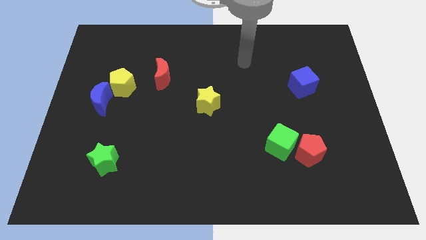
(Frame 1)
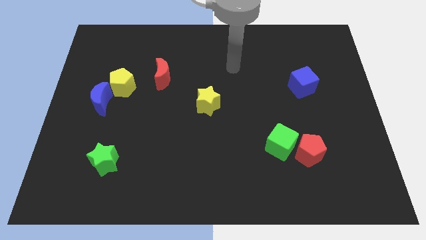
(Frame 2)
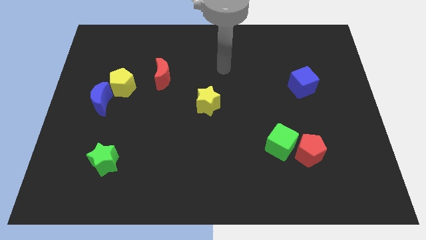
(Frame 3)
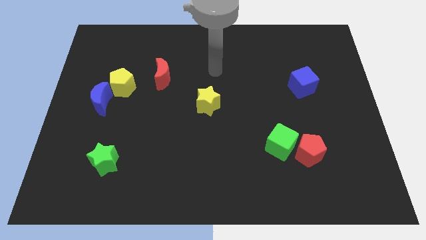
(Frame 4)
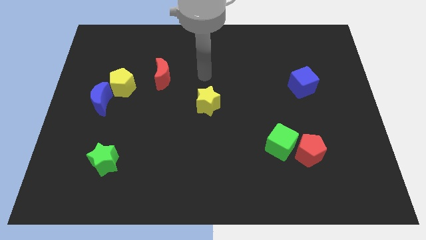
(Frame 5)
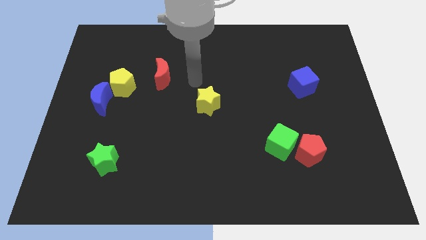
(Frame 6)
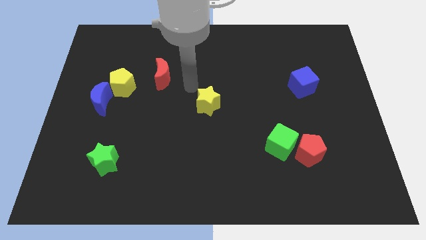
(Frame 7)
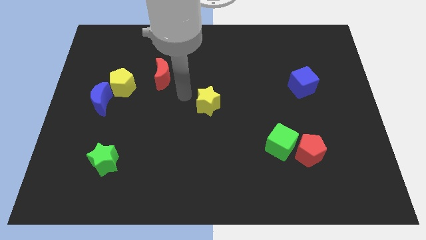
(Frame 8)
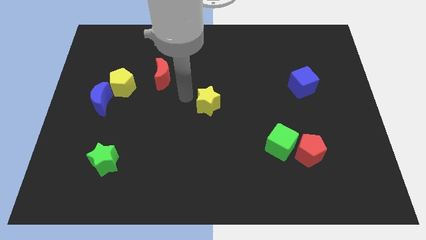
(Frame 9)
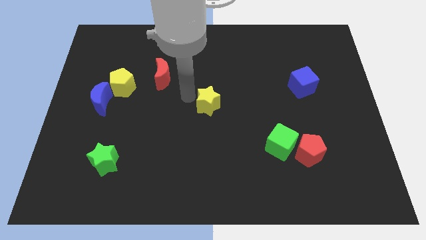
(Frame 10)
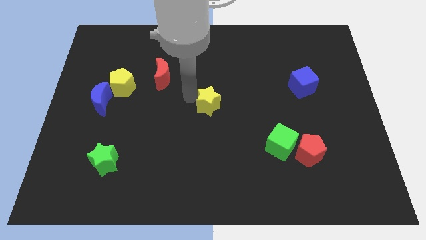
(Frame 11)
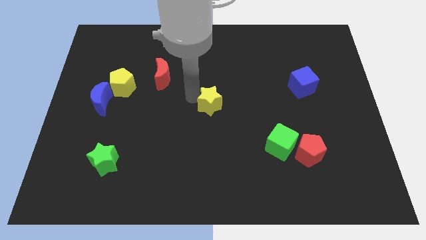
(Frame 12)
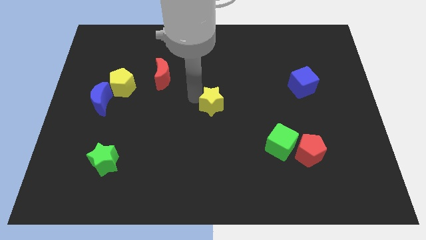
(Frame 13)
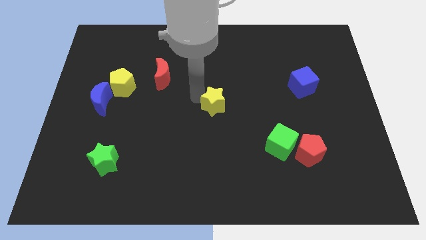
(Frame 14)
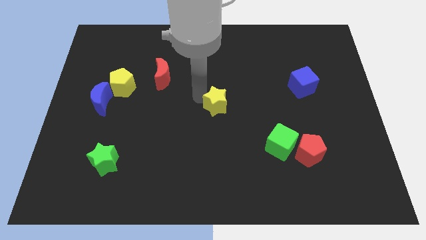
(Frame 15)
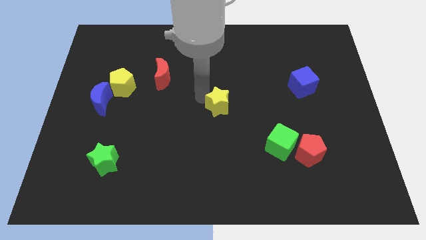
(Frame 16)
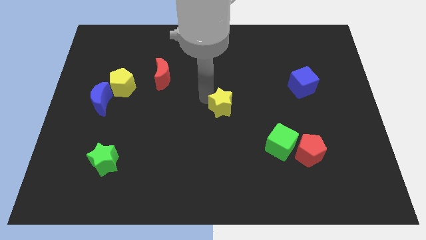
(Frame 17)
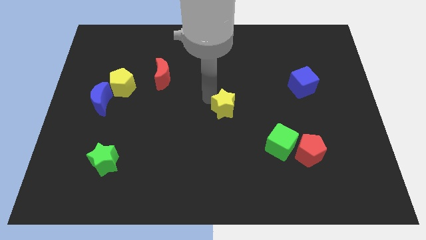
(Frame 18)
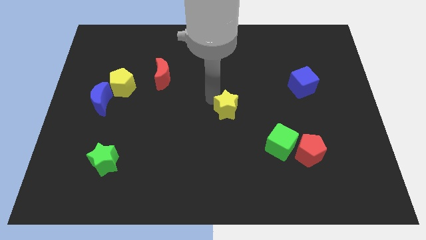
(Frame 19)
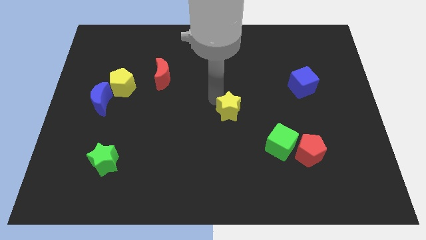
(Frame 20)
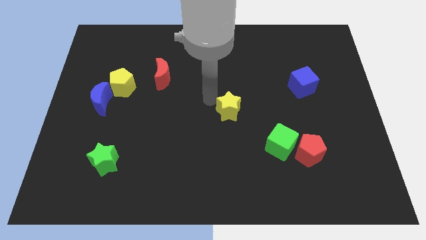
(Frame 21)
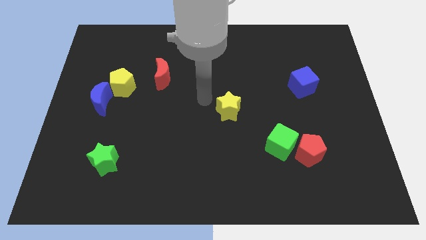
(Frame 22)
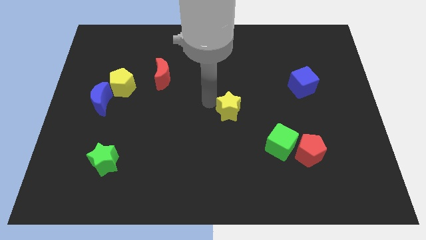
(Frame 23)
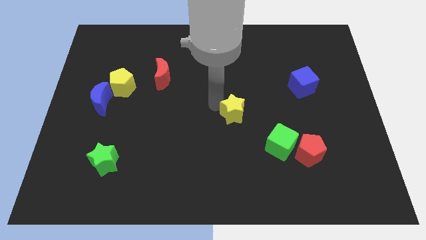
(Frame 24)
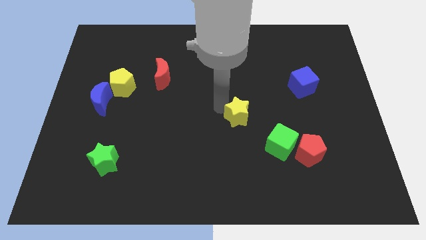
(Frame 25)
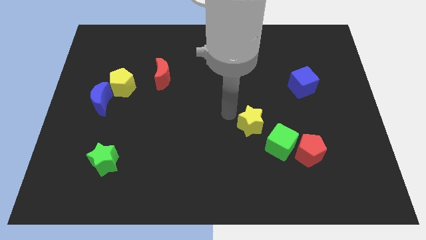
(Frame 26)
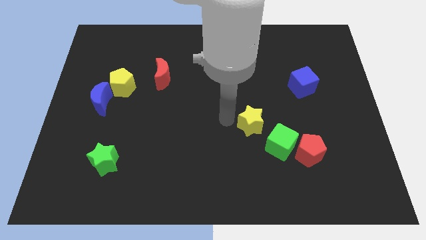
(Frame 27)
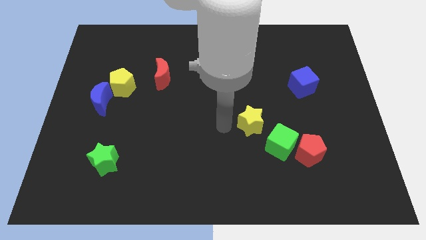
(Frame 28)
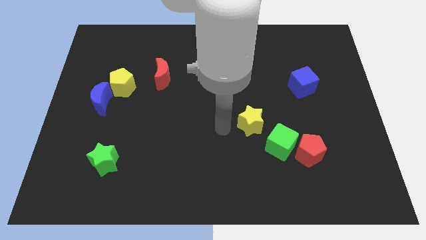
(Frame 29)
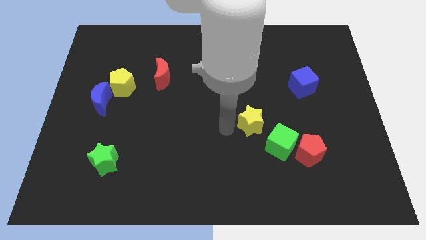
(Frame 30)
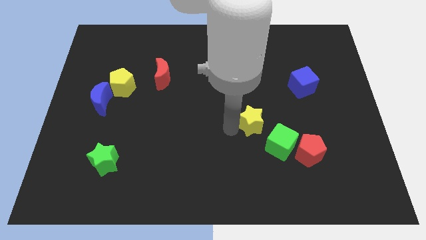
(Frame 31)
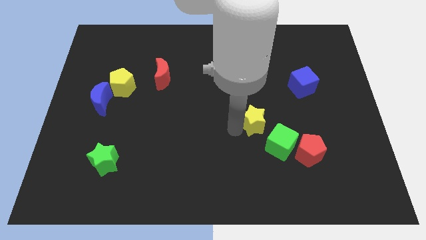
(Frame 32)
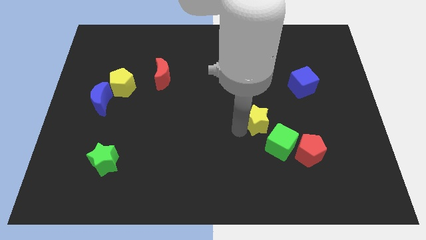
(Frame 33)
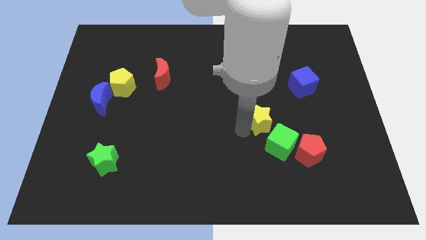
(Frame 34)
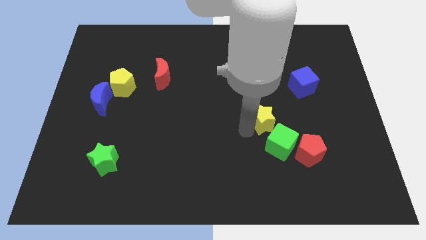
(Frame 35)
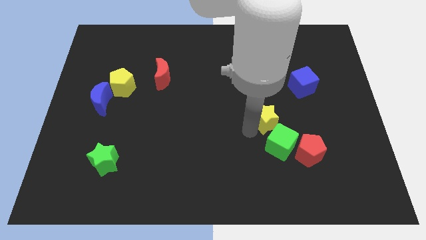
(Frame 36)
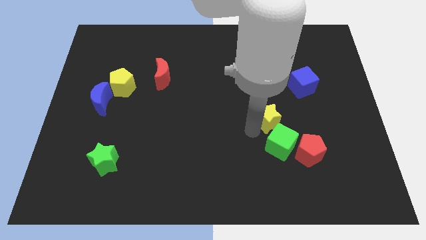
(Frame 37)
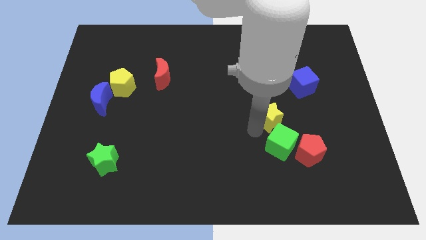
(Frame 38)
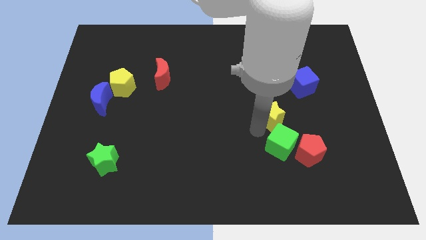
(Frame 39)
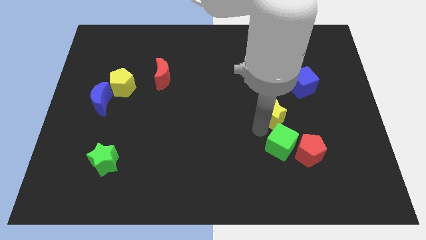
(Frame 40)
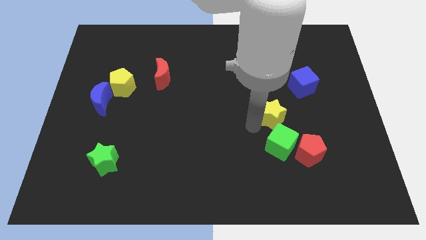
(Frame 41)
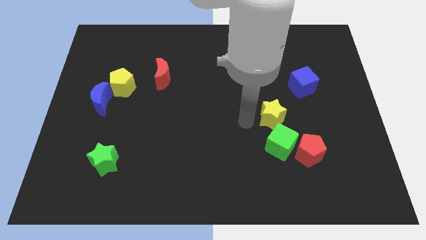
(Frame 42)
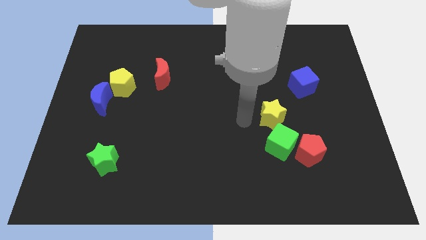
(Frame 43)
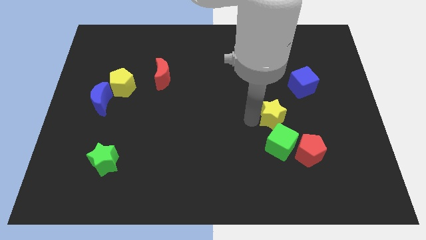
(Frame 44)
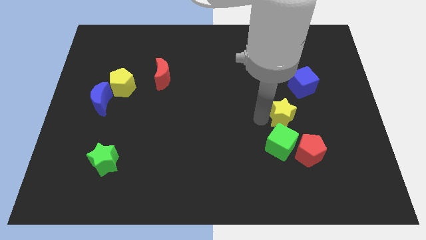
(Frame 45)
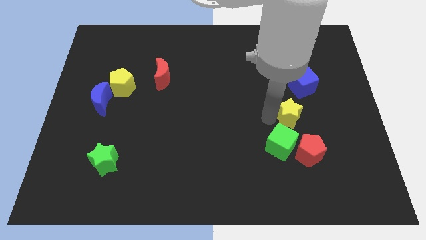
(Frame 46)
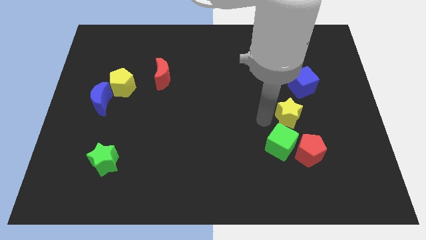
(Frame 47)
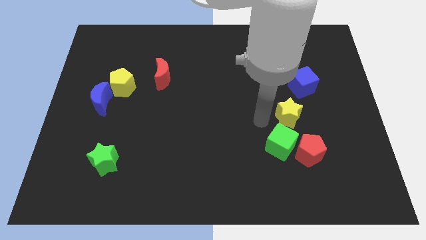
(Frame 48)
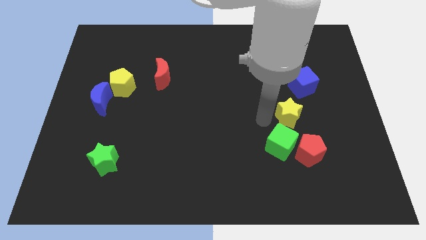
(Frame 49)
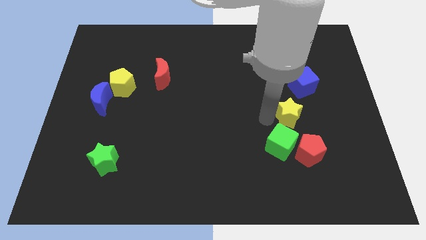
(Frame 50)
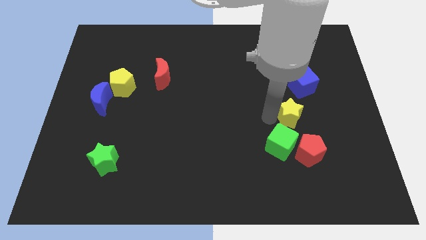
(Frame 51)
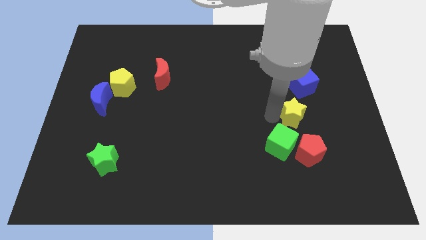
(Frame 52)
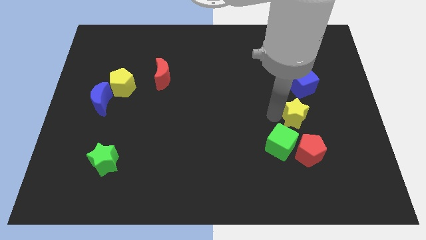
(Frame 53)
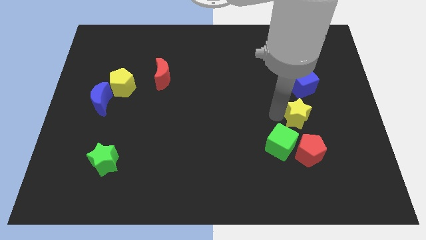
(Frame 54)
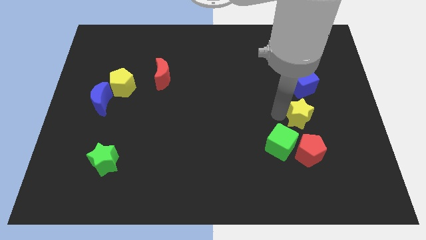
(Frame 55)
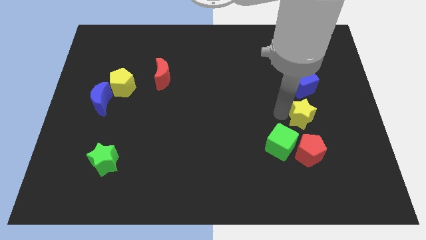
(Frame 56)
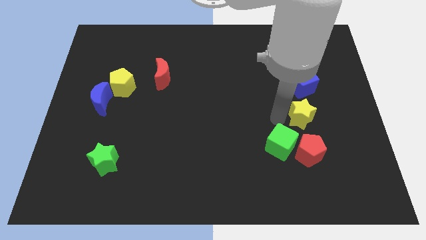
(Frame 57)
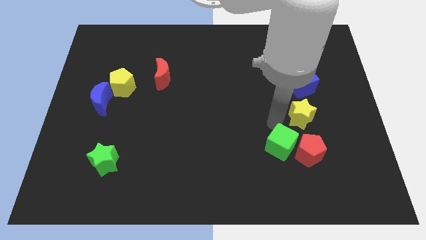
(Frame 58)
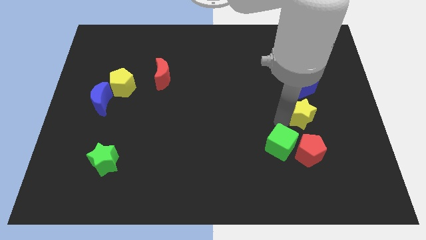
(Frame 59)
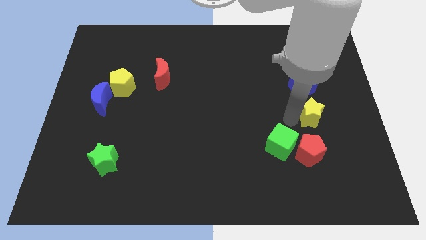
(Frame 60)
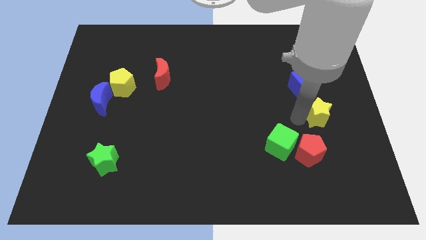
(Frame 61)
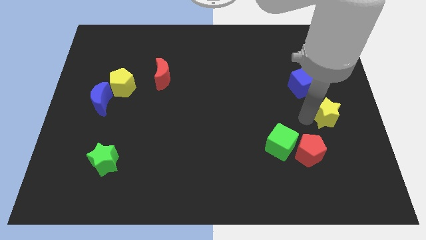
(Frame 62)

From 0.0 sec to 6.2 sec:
slide the yellow star to the right side of the board
